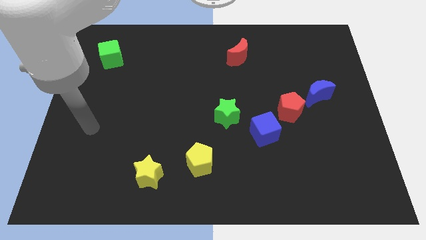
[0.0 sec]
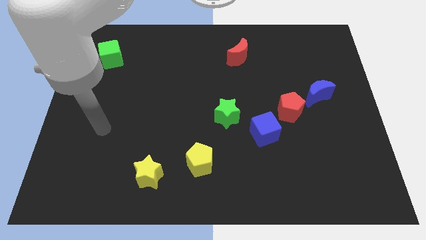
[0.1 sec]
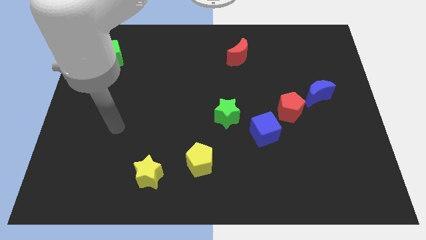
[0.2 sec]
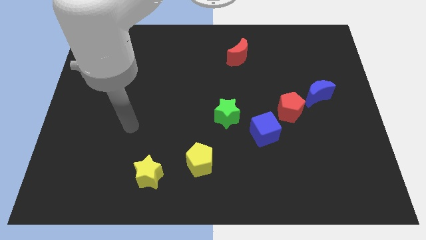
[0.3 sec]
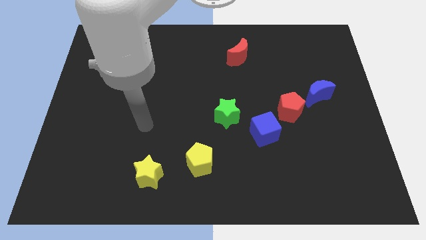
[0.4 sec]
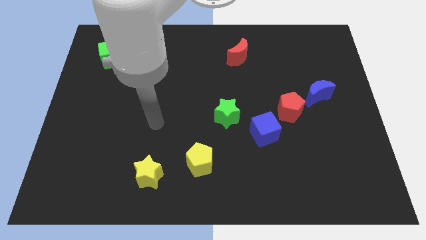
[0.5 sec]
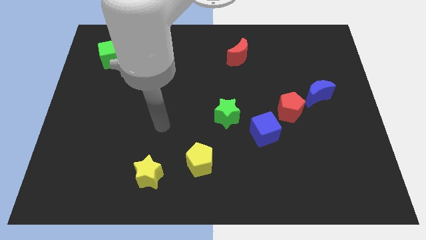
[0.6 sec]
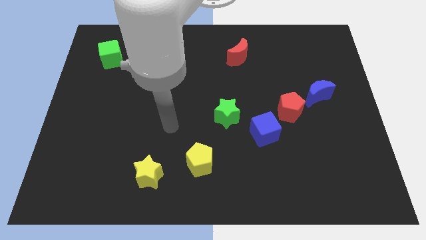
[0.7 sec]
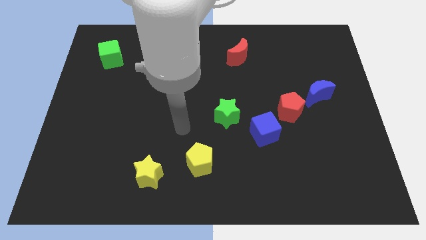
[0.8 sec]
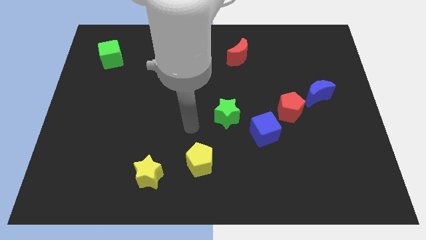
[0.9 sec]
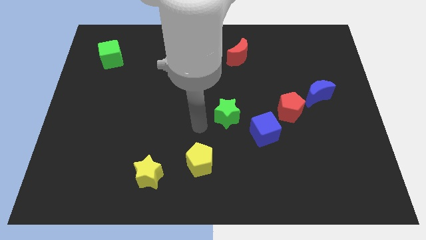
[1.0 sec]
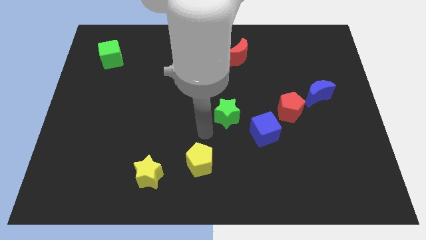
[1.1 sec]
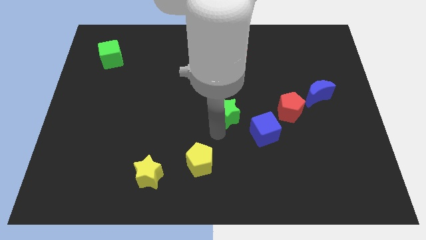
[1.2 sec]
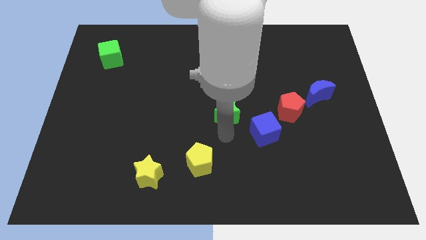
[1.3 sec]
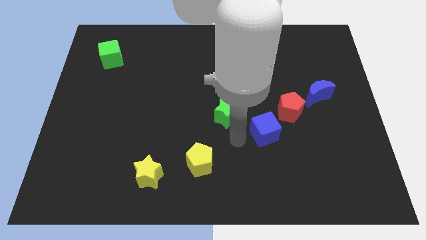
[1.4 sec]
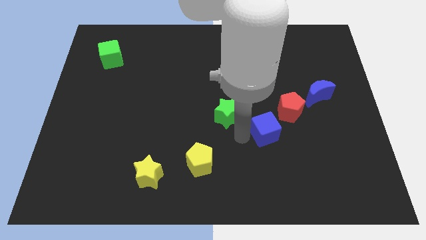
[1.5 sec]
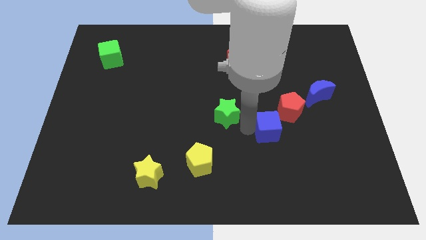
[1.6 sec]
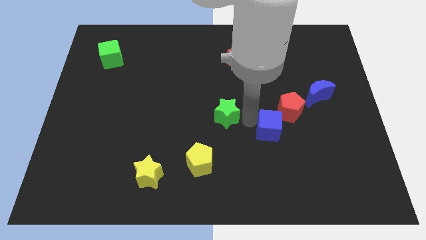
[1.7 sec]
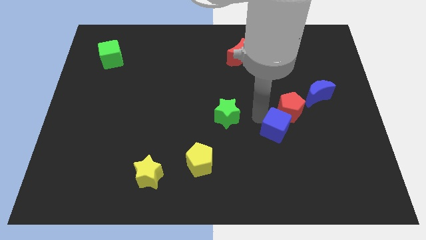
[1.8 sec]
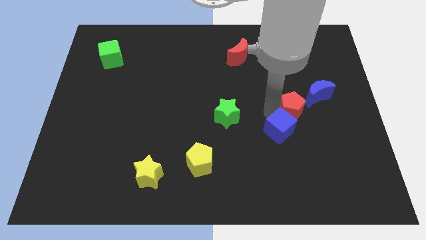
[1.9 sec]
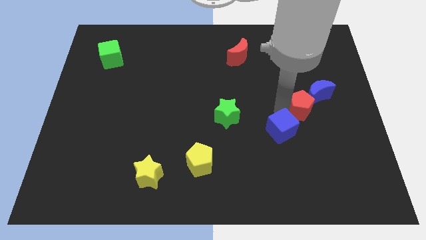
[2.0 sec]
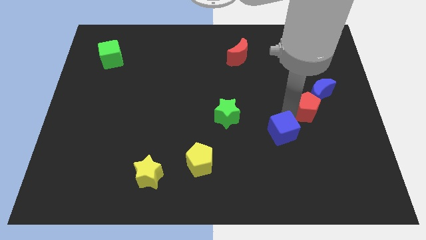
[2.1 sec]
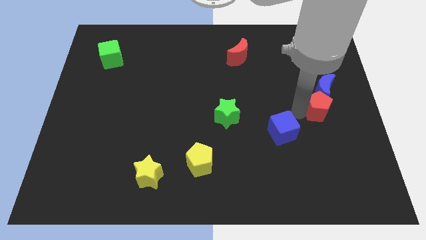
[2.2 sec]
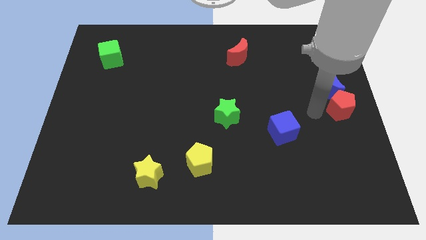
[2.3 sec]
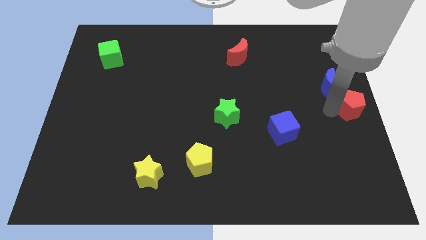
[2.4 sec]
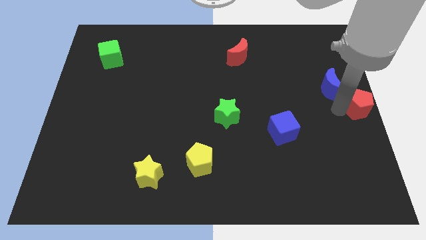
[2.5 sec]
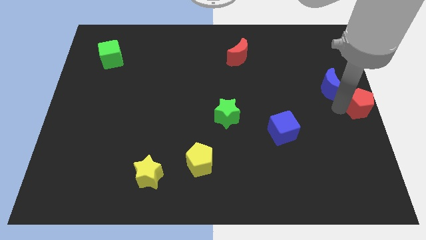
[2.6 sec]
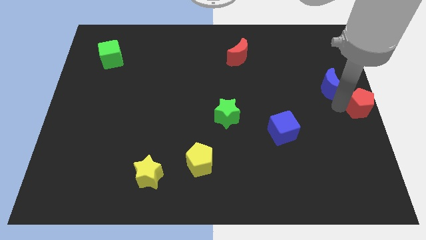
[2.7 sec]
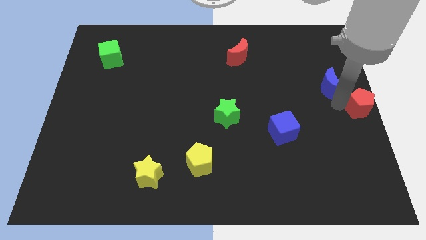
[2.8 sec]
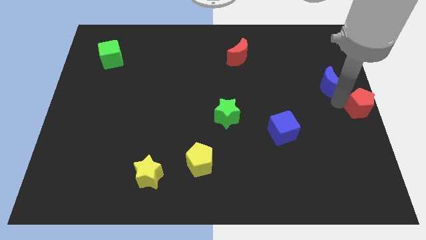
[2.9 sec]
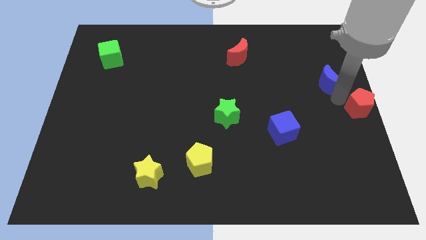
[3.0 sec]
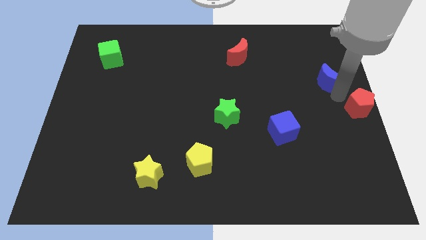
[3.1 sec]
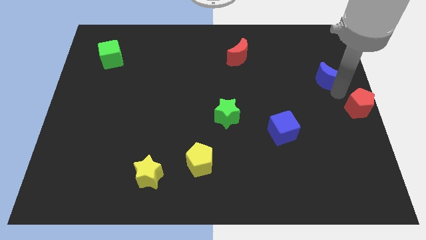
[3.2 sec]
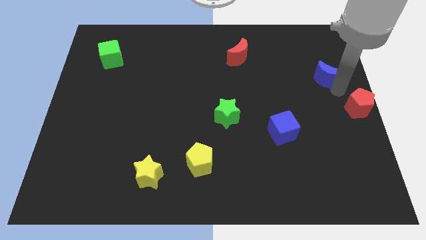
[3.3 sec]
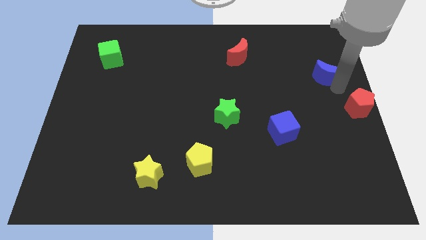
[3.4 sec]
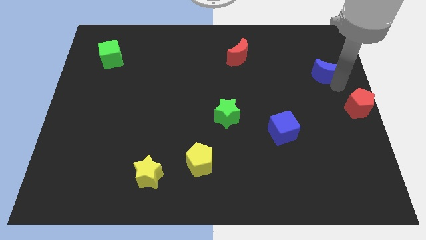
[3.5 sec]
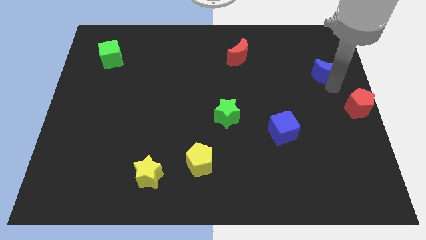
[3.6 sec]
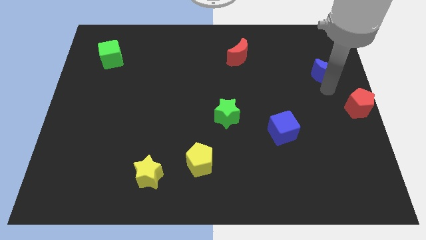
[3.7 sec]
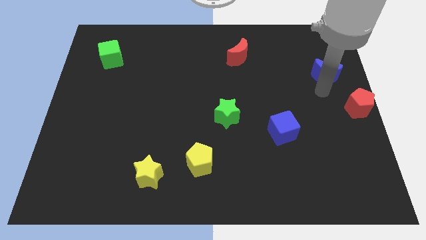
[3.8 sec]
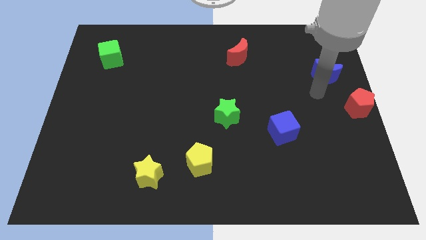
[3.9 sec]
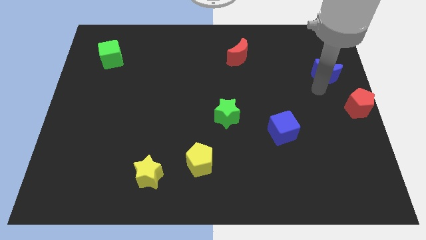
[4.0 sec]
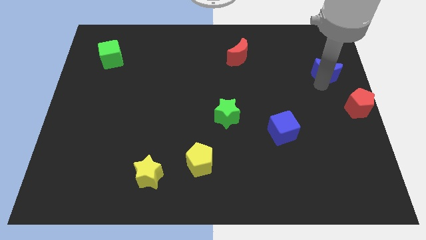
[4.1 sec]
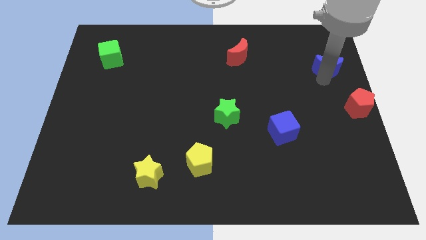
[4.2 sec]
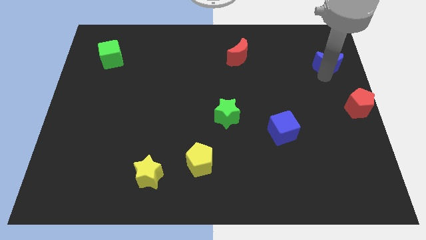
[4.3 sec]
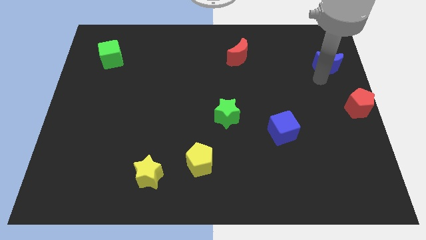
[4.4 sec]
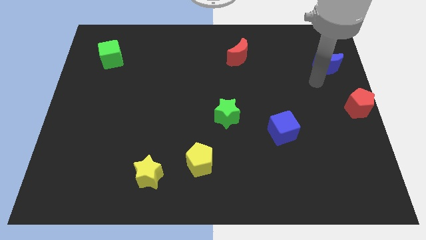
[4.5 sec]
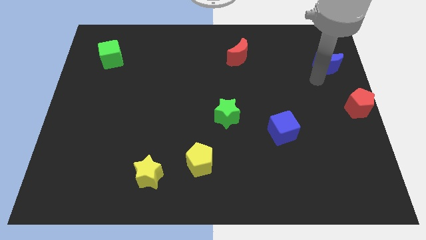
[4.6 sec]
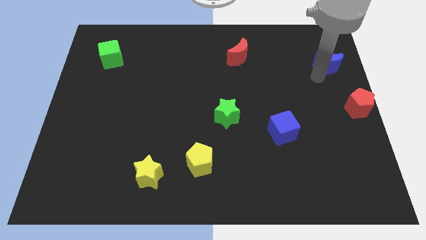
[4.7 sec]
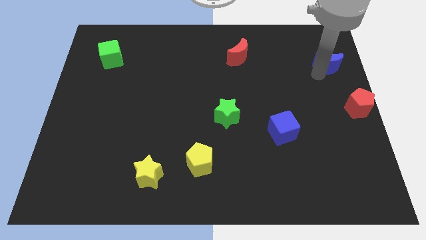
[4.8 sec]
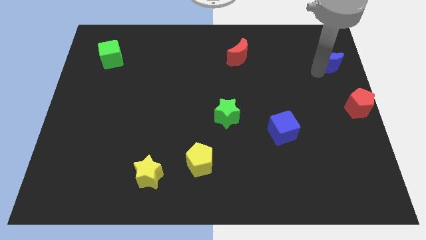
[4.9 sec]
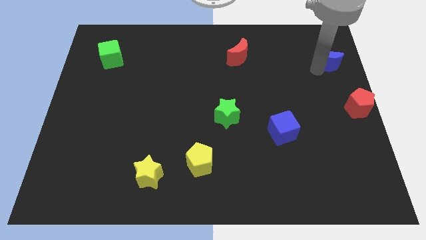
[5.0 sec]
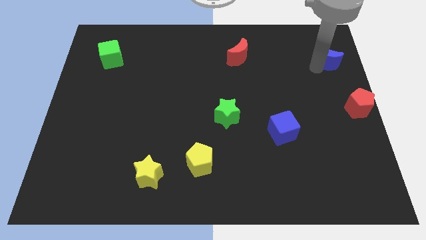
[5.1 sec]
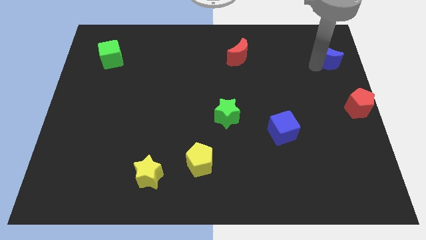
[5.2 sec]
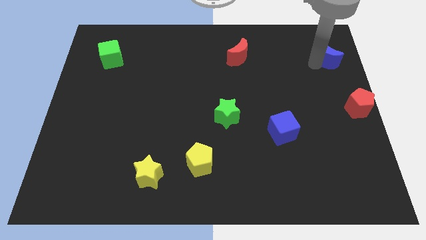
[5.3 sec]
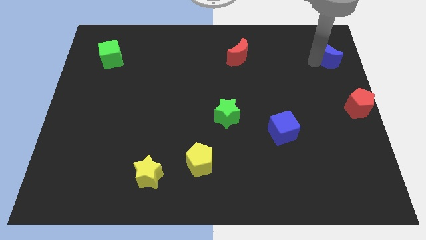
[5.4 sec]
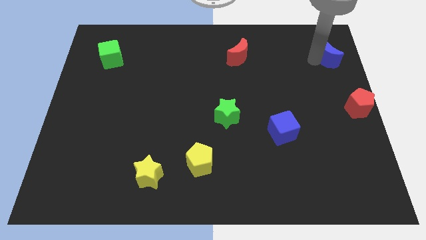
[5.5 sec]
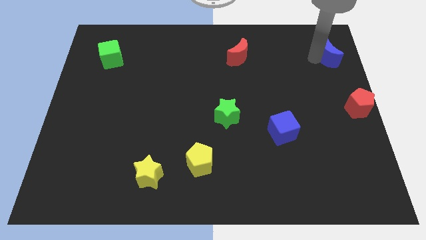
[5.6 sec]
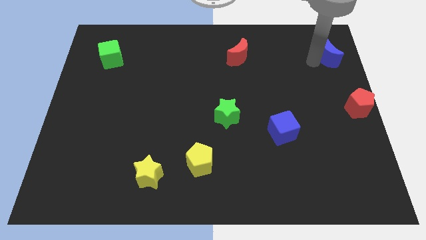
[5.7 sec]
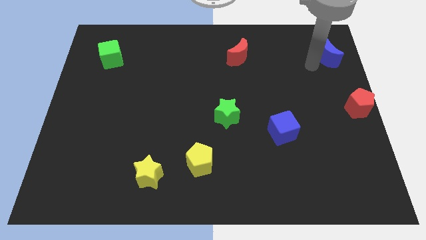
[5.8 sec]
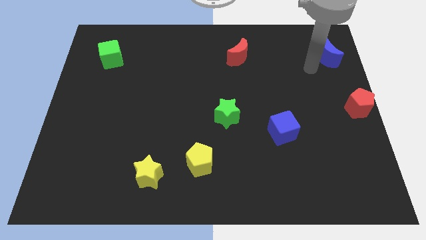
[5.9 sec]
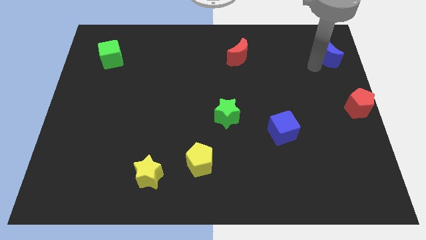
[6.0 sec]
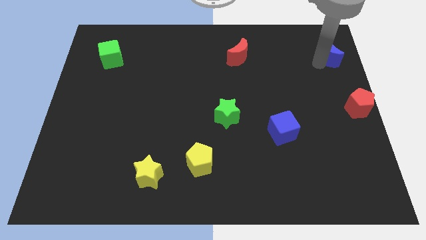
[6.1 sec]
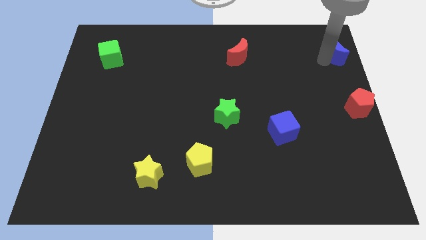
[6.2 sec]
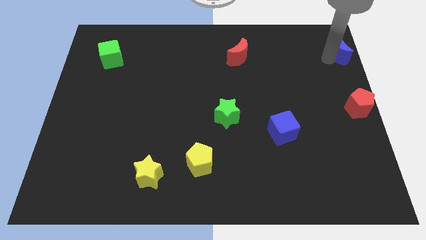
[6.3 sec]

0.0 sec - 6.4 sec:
move the blue moon to the top right corner

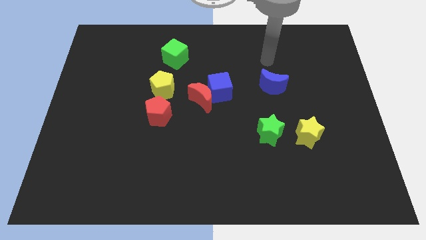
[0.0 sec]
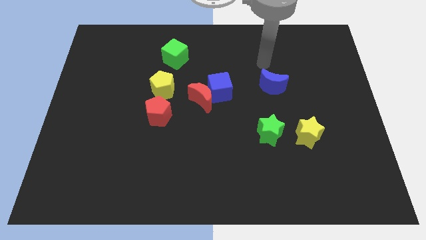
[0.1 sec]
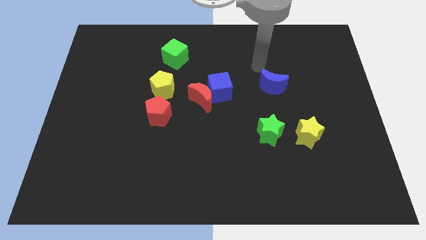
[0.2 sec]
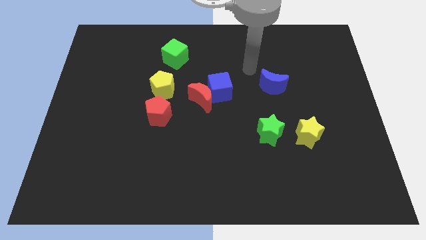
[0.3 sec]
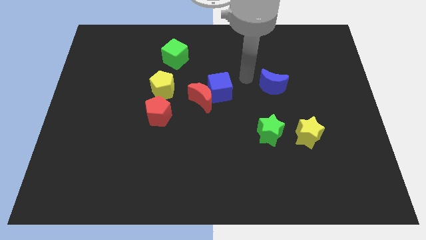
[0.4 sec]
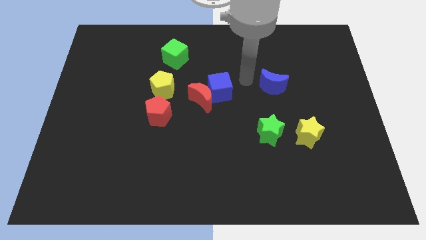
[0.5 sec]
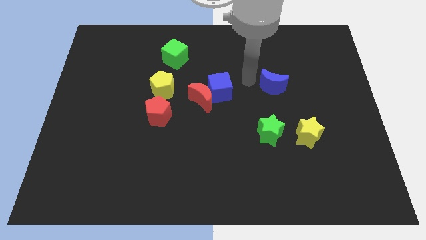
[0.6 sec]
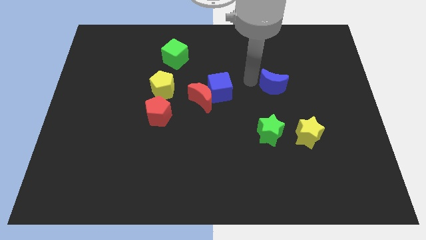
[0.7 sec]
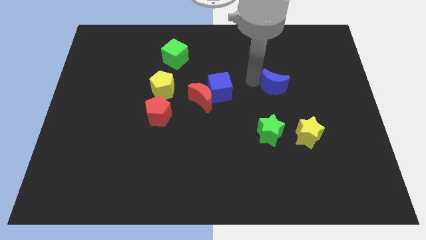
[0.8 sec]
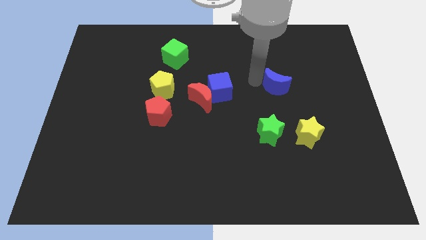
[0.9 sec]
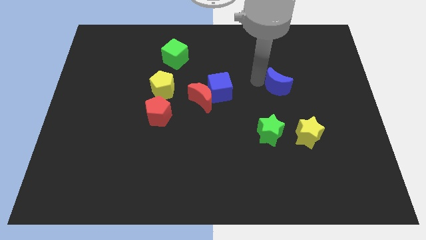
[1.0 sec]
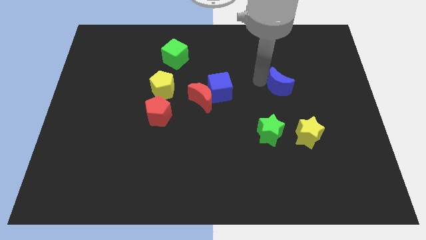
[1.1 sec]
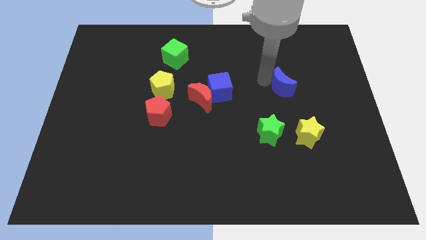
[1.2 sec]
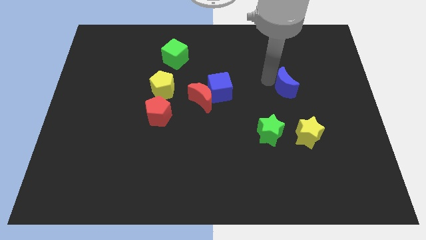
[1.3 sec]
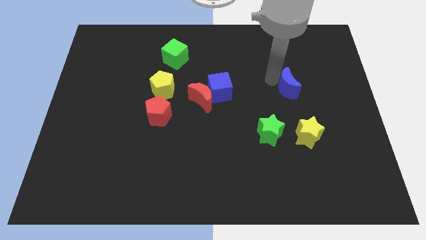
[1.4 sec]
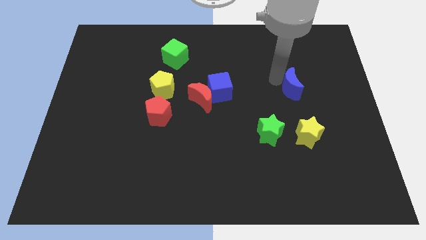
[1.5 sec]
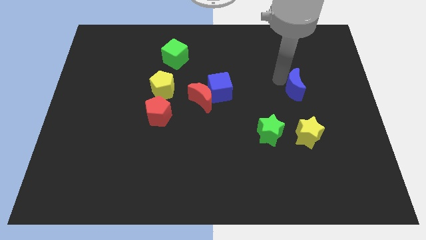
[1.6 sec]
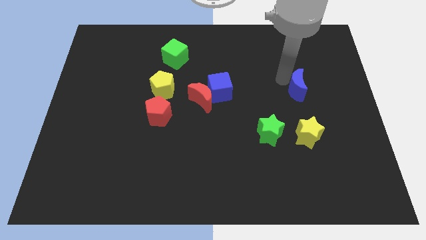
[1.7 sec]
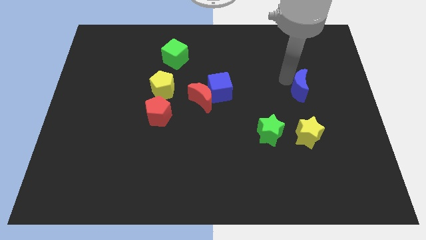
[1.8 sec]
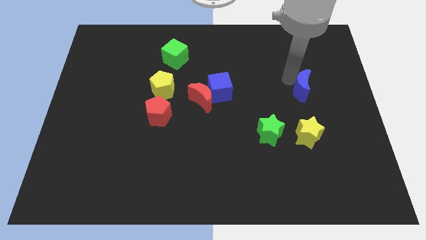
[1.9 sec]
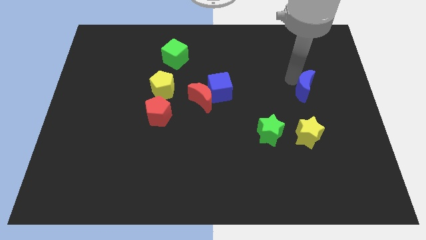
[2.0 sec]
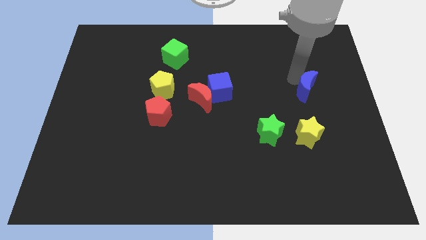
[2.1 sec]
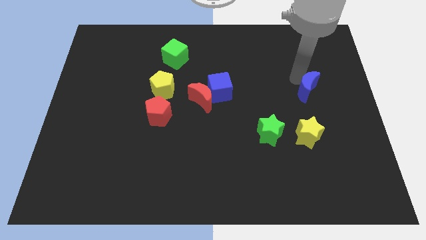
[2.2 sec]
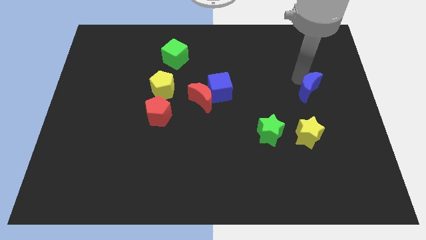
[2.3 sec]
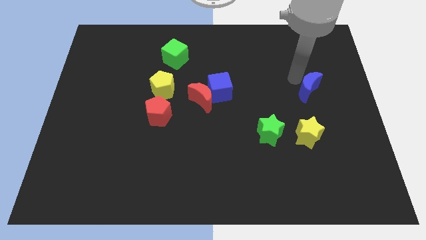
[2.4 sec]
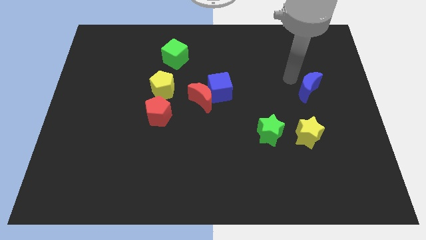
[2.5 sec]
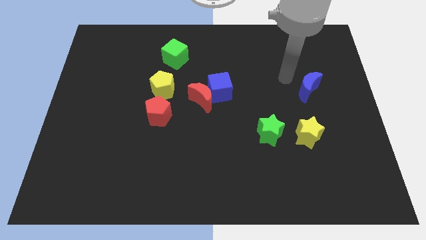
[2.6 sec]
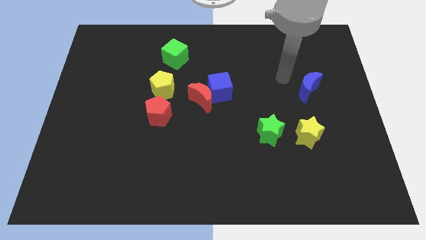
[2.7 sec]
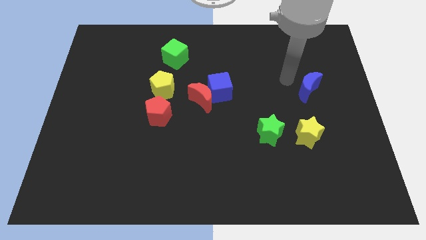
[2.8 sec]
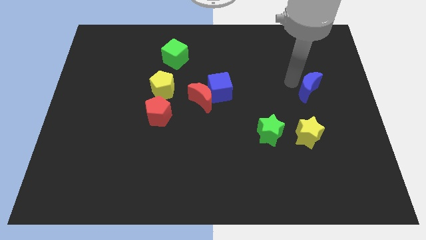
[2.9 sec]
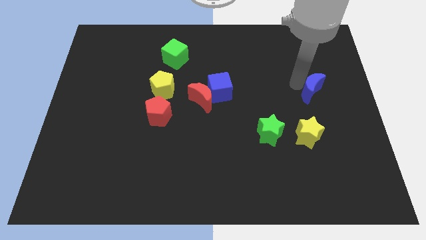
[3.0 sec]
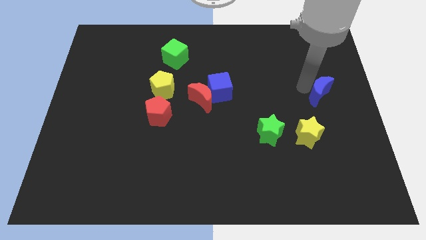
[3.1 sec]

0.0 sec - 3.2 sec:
push the blue moon to the right side of the board
